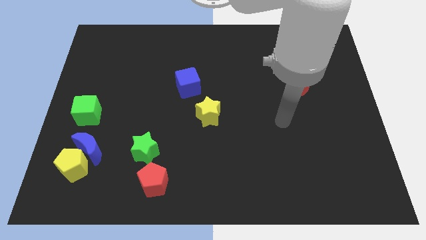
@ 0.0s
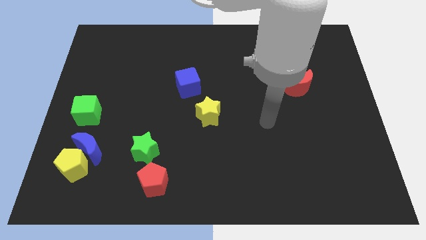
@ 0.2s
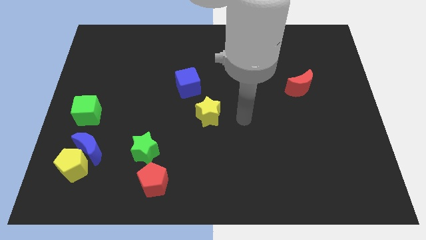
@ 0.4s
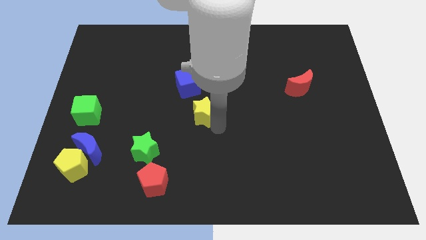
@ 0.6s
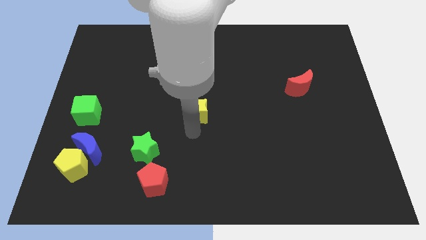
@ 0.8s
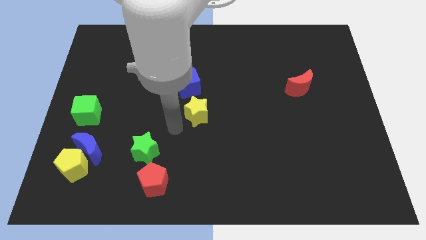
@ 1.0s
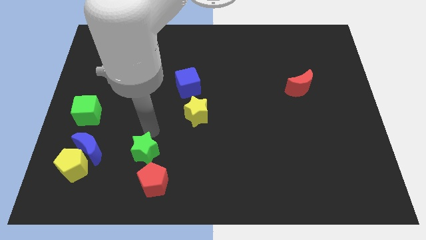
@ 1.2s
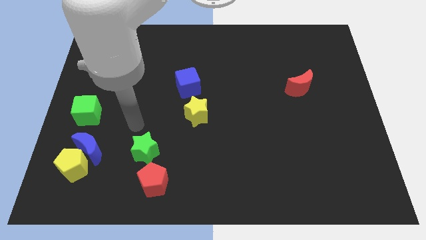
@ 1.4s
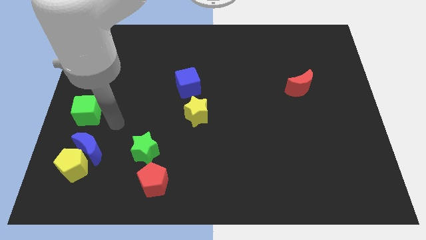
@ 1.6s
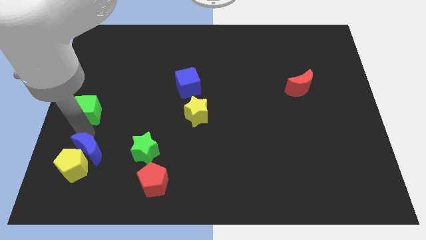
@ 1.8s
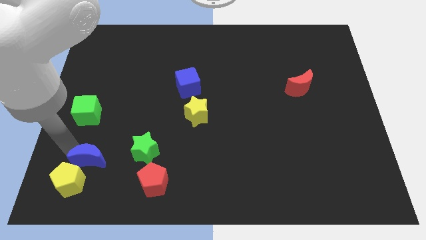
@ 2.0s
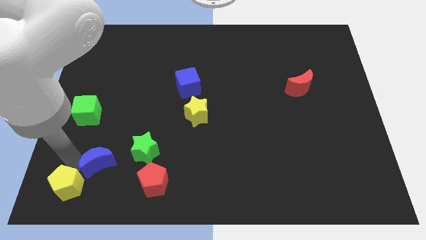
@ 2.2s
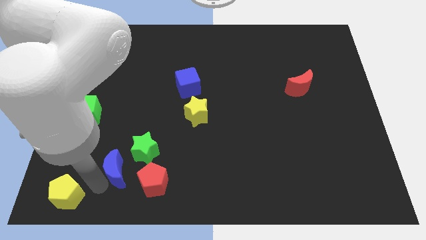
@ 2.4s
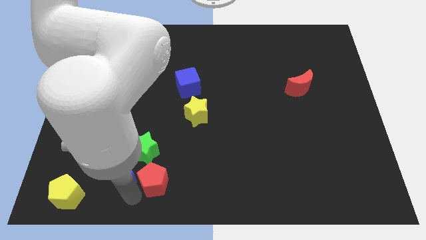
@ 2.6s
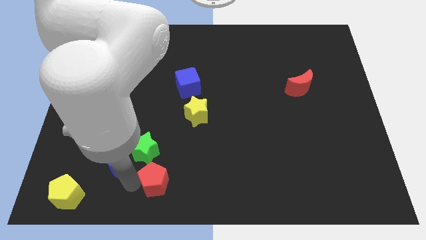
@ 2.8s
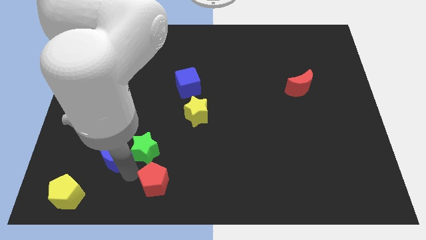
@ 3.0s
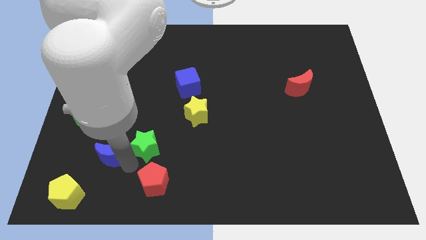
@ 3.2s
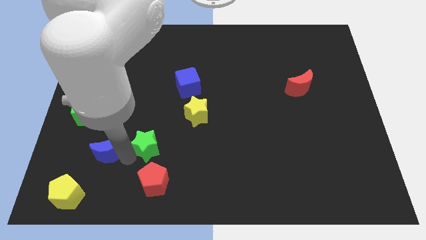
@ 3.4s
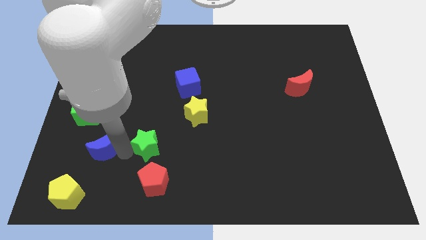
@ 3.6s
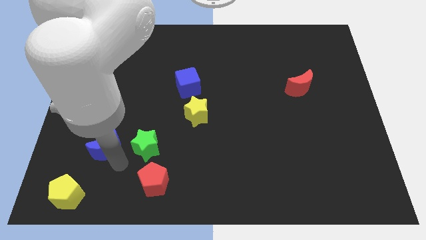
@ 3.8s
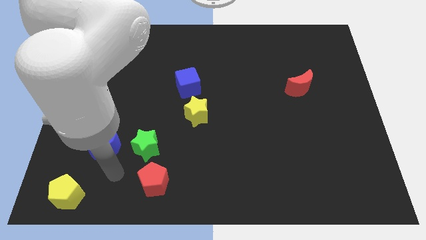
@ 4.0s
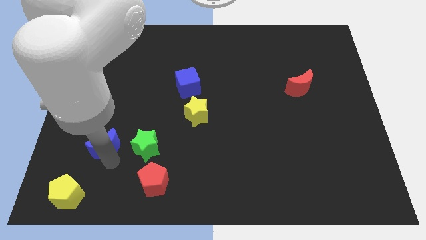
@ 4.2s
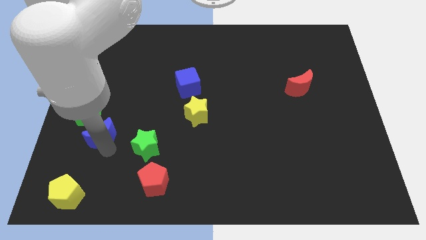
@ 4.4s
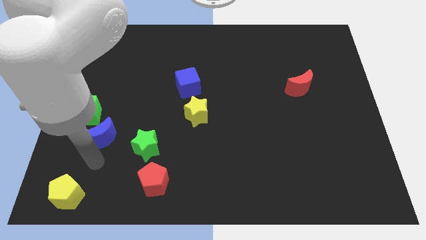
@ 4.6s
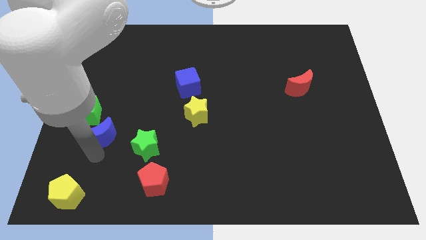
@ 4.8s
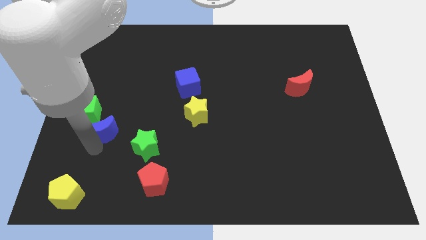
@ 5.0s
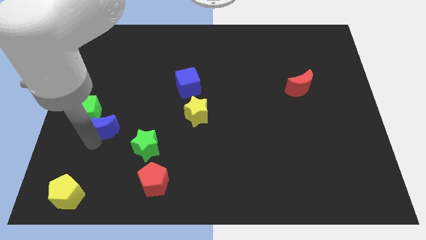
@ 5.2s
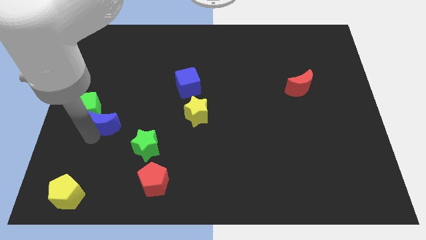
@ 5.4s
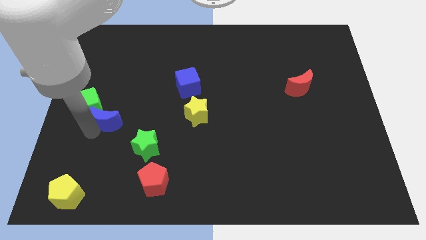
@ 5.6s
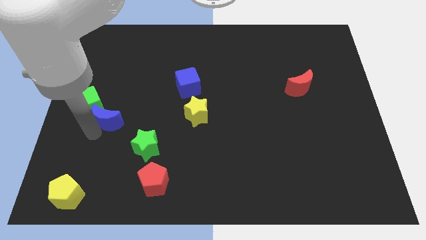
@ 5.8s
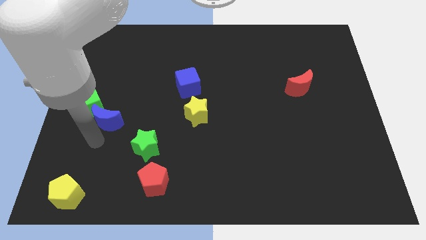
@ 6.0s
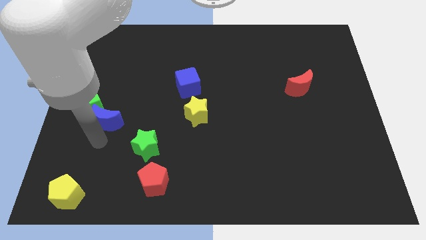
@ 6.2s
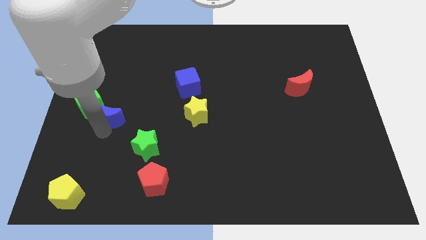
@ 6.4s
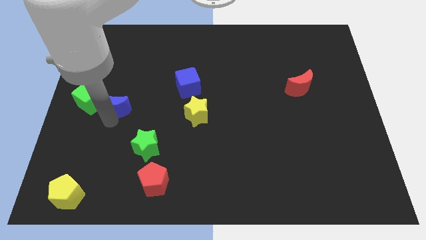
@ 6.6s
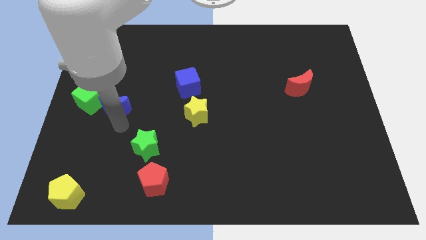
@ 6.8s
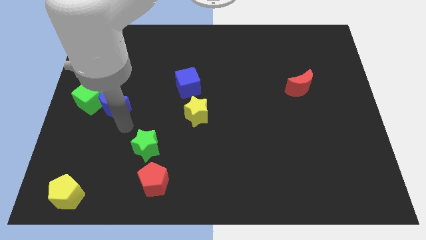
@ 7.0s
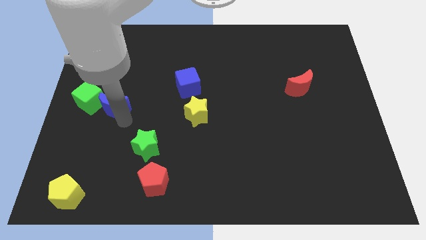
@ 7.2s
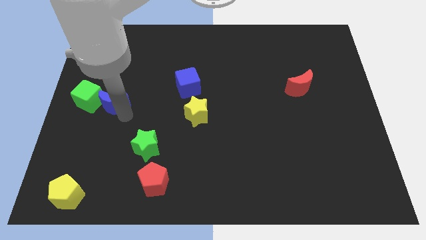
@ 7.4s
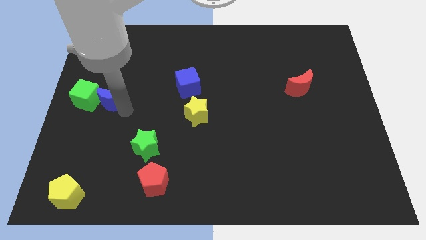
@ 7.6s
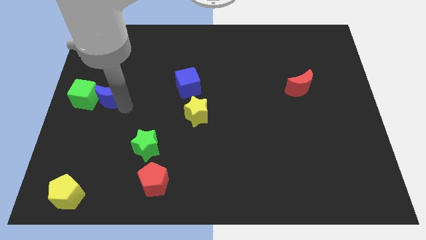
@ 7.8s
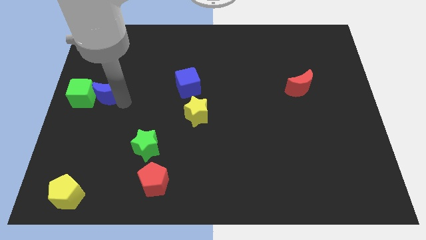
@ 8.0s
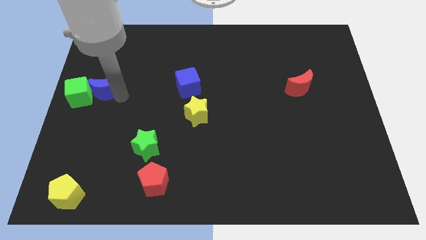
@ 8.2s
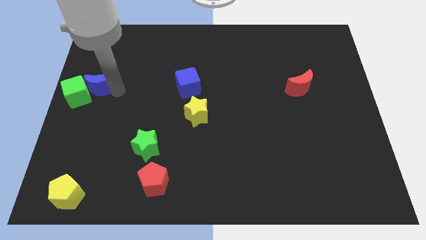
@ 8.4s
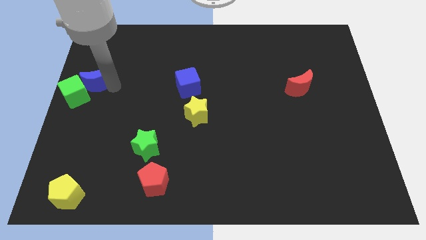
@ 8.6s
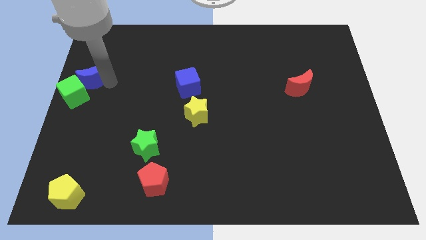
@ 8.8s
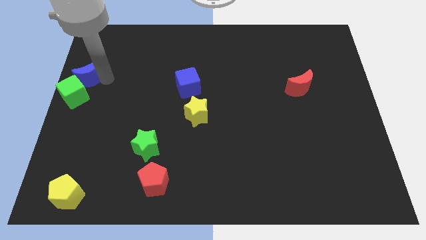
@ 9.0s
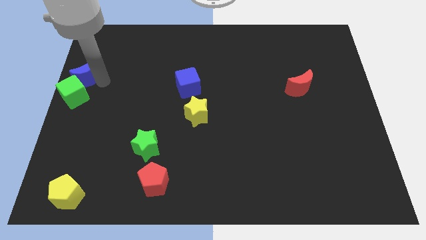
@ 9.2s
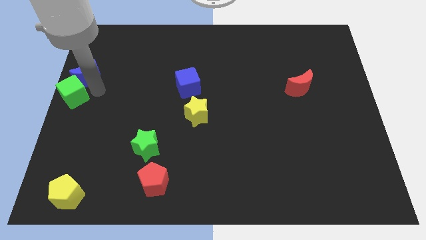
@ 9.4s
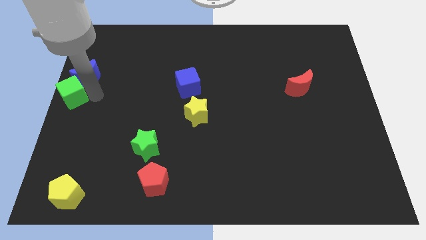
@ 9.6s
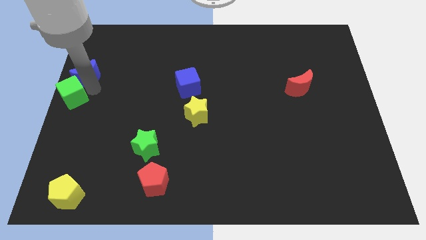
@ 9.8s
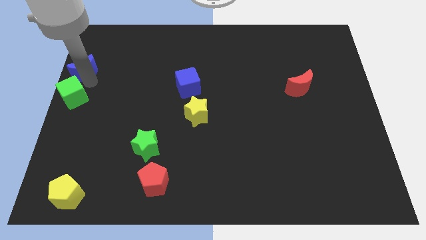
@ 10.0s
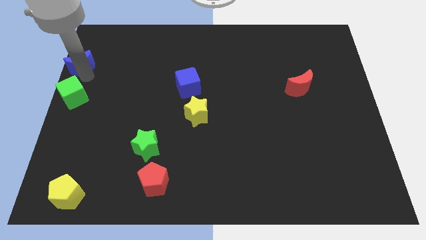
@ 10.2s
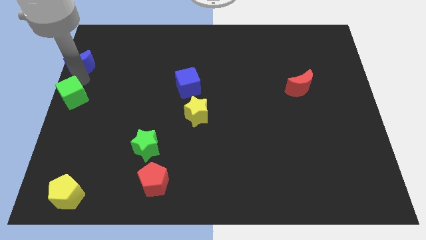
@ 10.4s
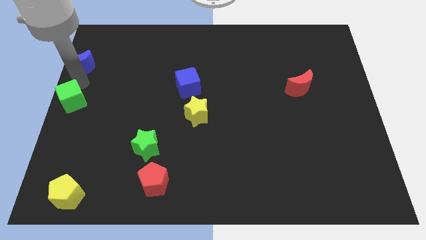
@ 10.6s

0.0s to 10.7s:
slide the blue moon above the green cube

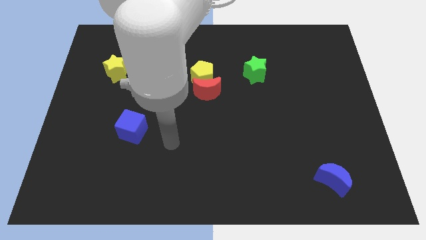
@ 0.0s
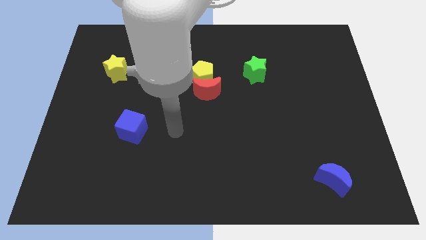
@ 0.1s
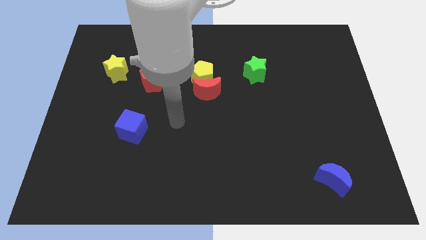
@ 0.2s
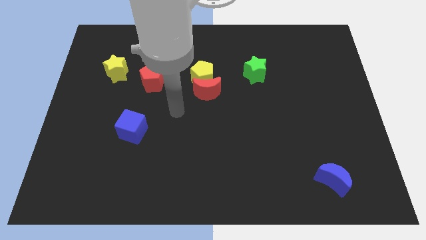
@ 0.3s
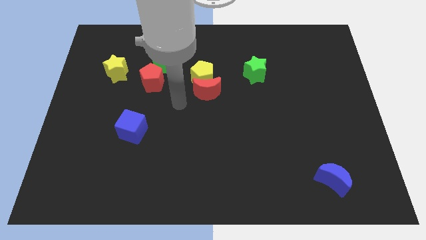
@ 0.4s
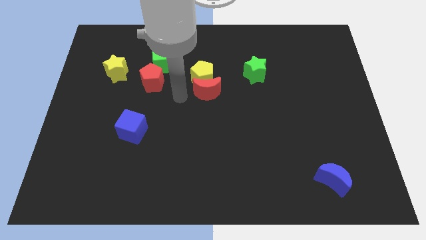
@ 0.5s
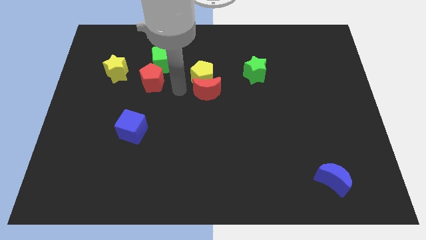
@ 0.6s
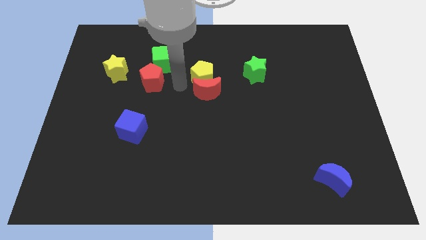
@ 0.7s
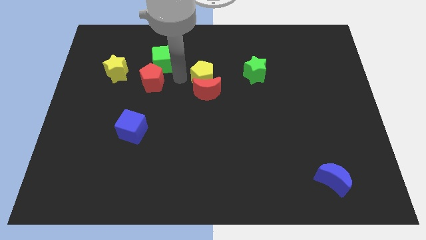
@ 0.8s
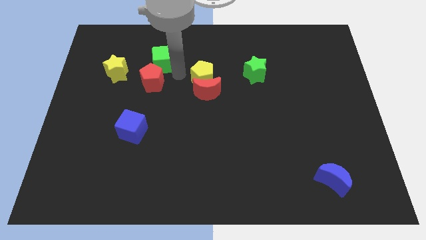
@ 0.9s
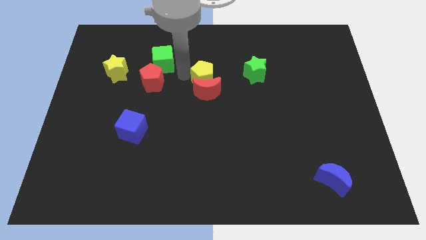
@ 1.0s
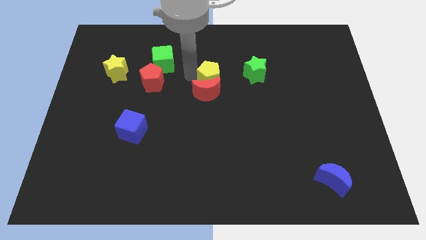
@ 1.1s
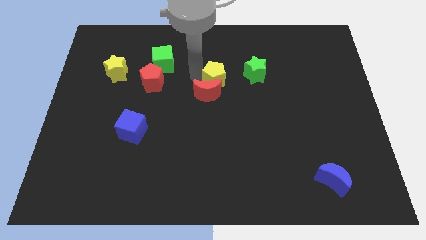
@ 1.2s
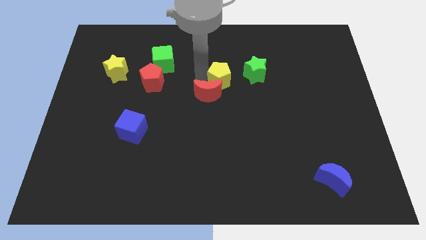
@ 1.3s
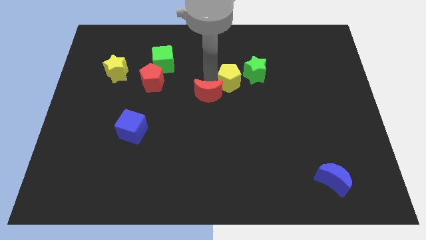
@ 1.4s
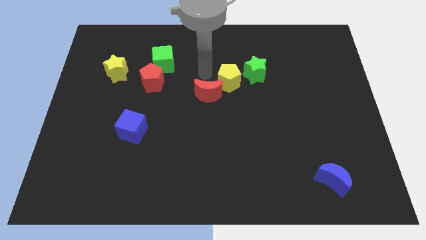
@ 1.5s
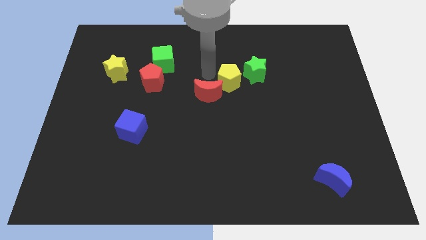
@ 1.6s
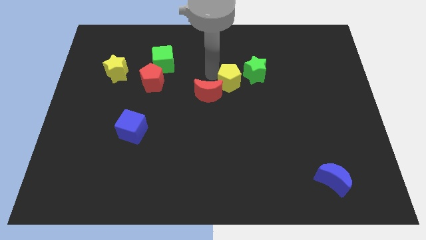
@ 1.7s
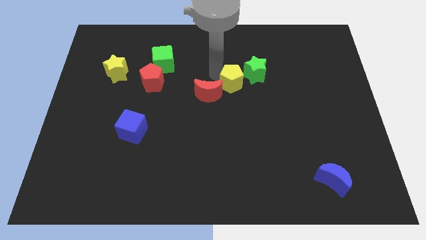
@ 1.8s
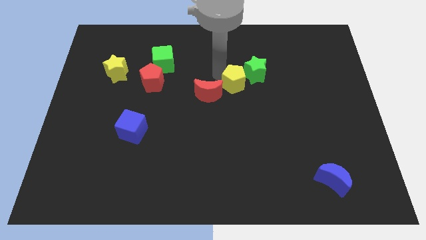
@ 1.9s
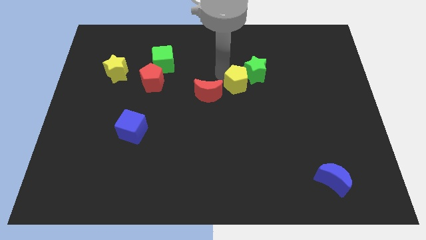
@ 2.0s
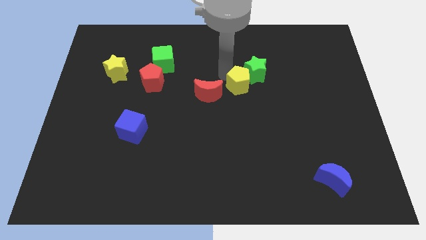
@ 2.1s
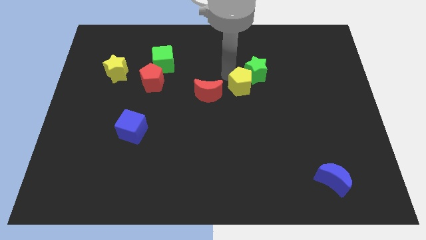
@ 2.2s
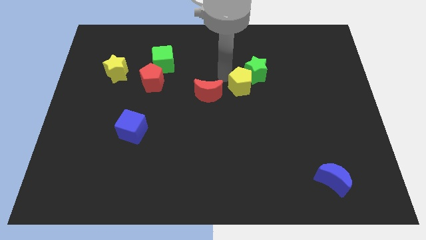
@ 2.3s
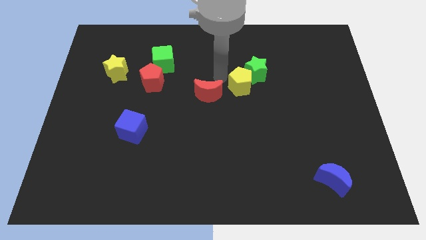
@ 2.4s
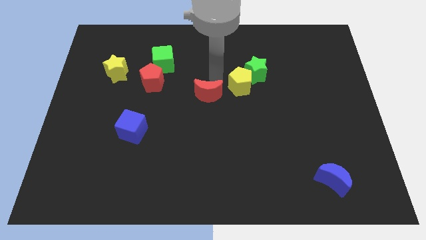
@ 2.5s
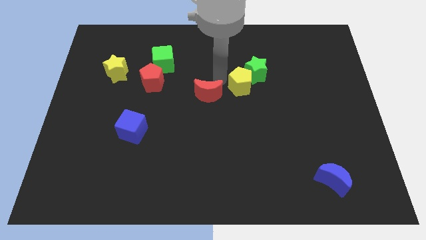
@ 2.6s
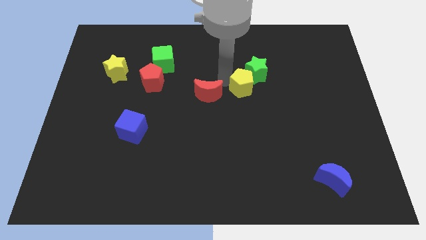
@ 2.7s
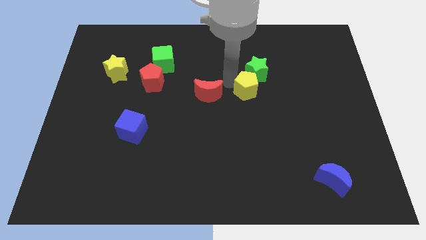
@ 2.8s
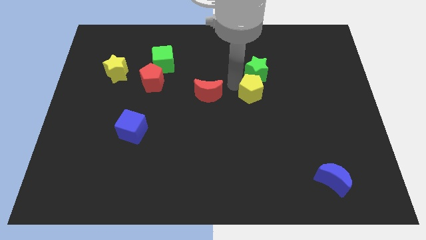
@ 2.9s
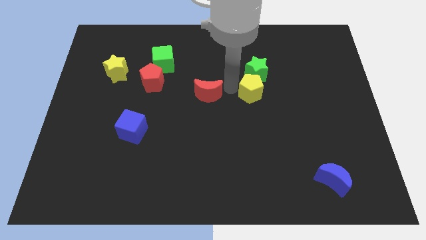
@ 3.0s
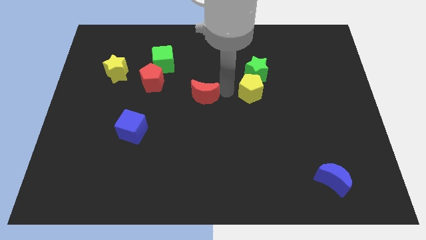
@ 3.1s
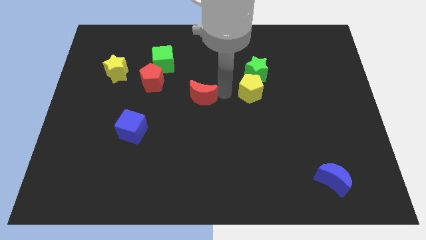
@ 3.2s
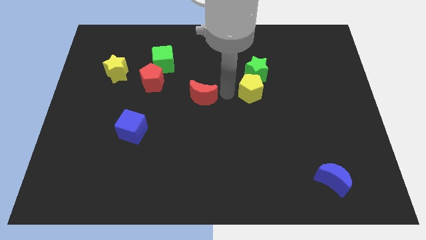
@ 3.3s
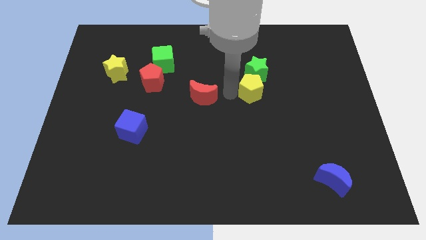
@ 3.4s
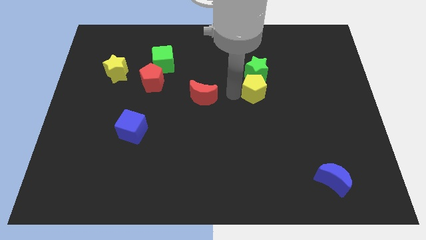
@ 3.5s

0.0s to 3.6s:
slide the yellow pentagon to the bottom right side of the green star
